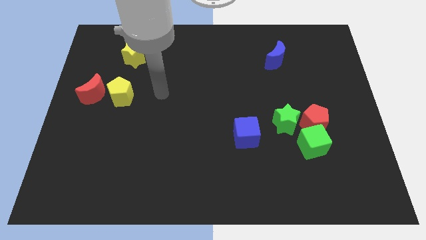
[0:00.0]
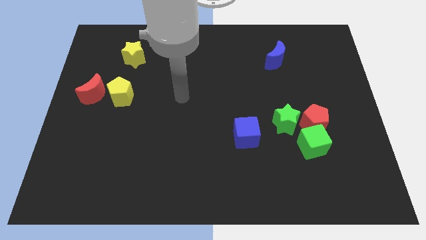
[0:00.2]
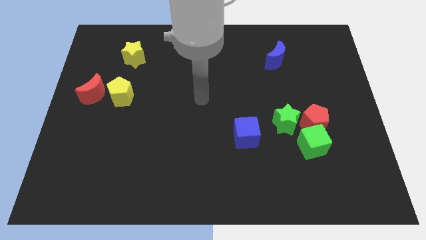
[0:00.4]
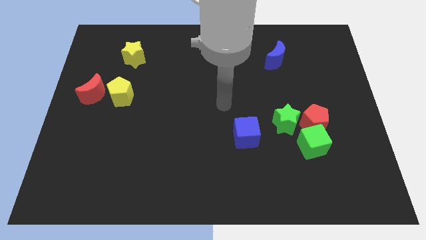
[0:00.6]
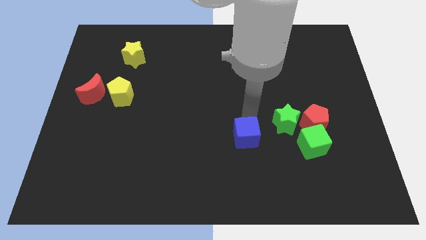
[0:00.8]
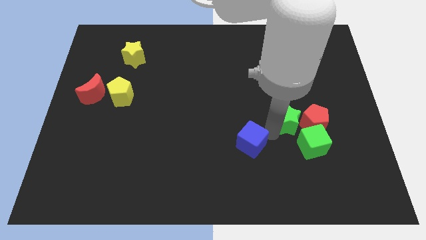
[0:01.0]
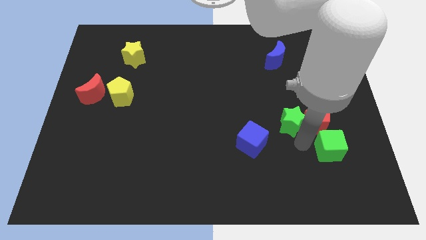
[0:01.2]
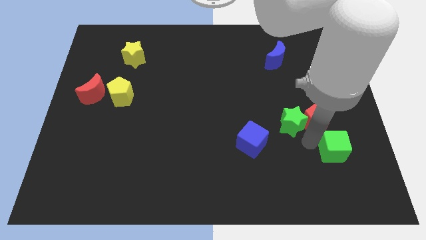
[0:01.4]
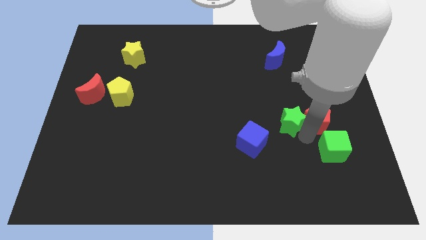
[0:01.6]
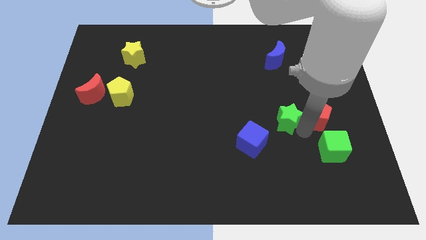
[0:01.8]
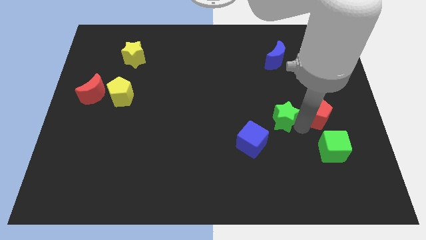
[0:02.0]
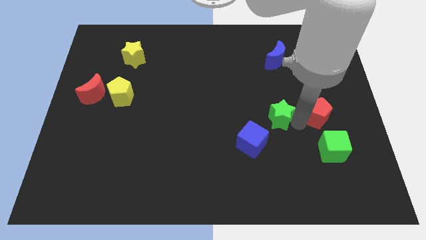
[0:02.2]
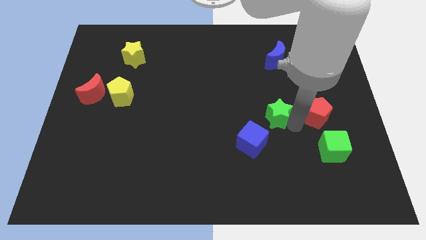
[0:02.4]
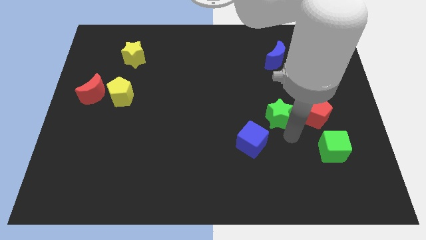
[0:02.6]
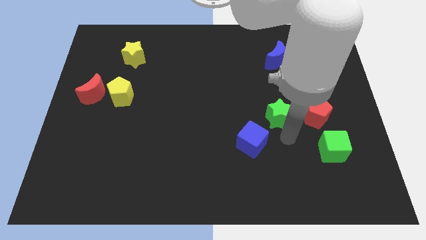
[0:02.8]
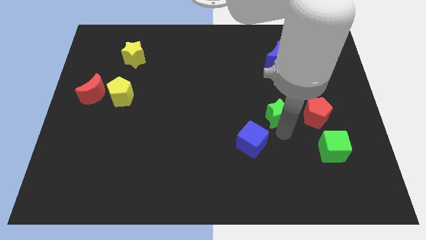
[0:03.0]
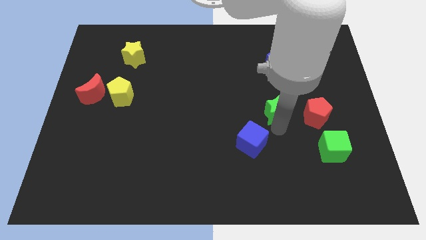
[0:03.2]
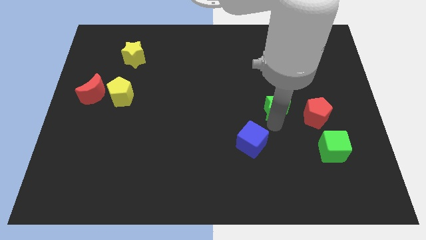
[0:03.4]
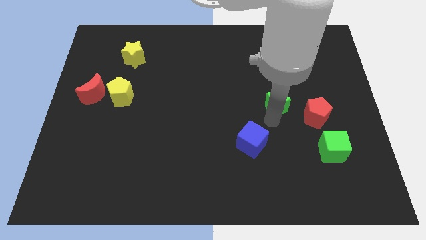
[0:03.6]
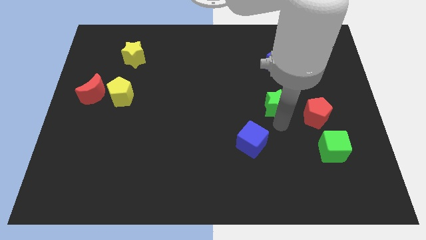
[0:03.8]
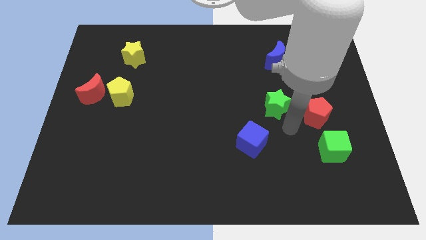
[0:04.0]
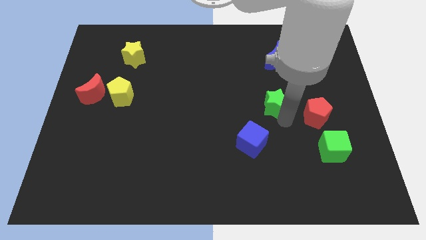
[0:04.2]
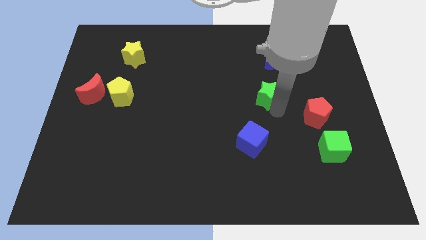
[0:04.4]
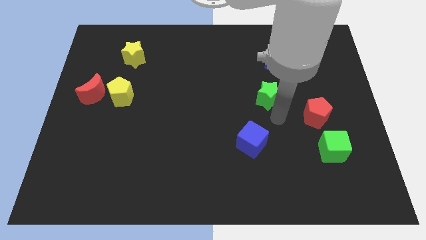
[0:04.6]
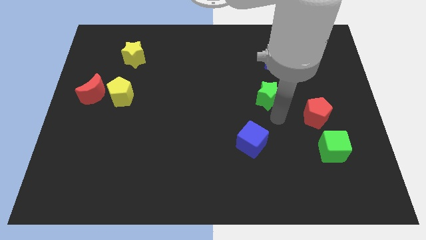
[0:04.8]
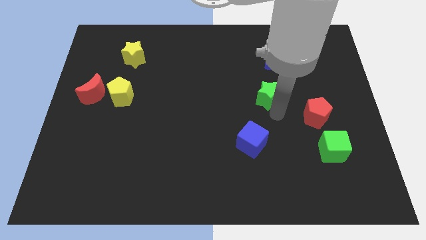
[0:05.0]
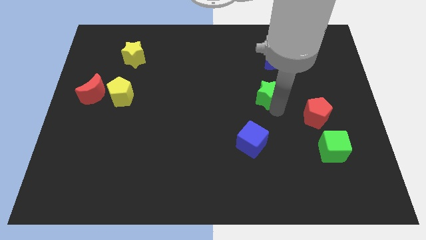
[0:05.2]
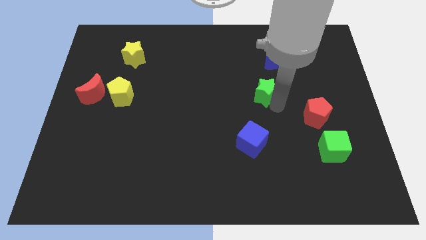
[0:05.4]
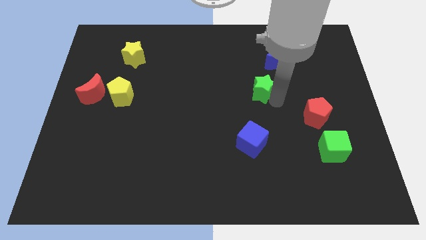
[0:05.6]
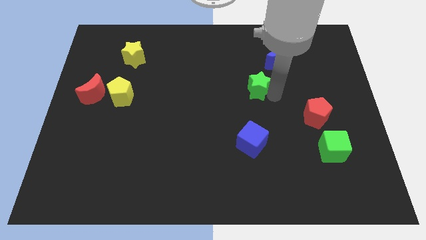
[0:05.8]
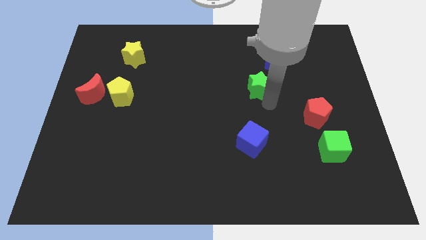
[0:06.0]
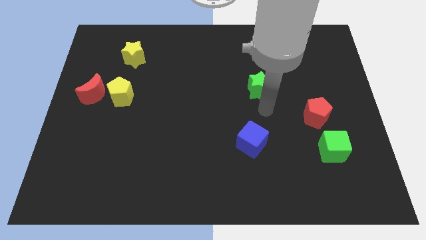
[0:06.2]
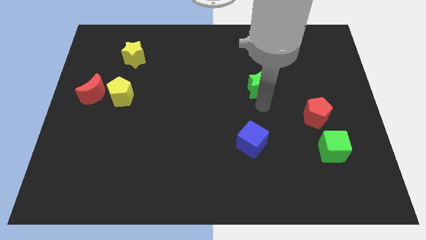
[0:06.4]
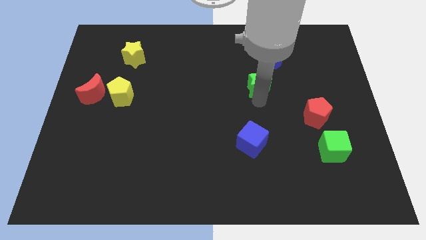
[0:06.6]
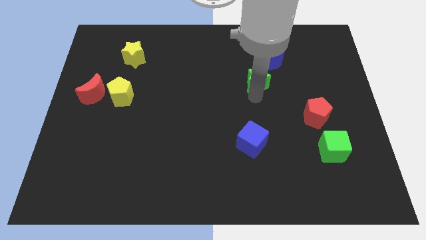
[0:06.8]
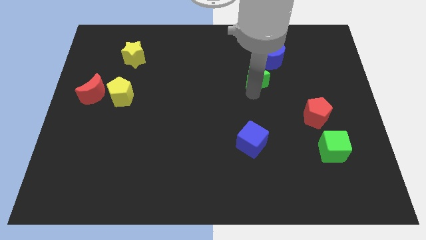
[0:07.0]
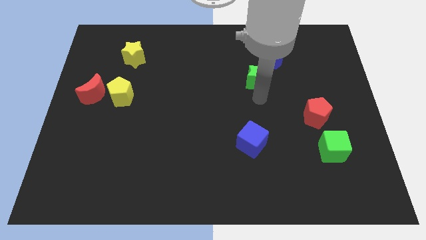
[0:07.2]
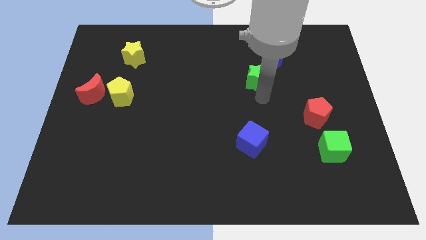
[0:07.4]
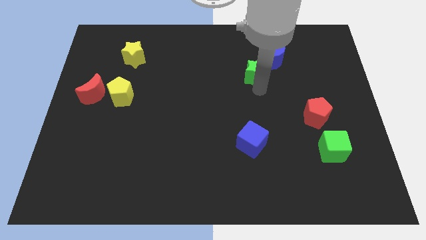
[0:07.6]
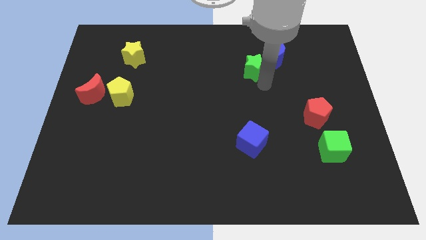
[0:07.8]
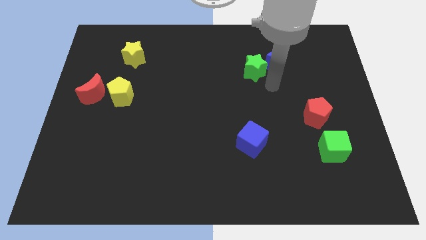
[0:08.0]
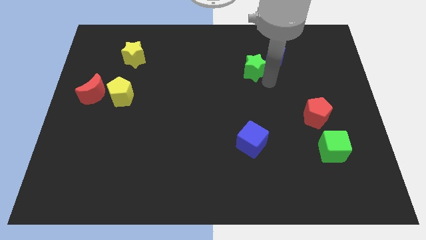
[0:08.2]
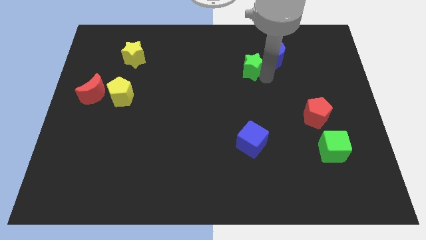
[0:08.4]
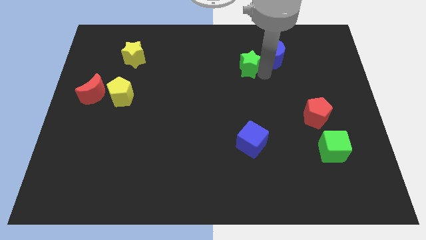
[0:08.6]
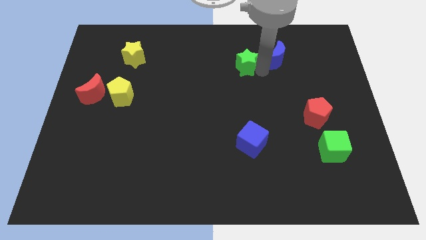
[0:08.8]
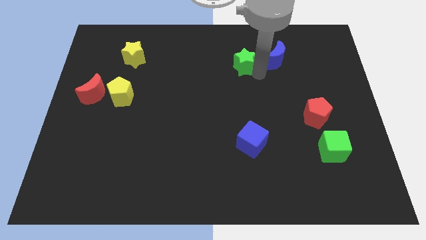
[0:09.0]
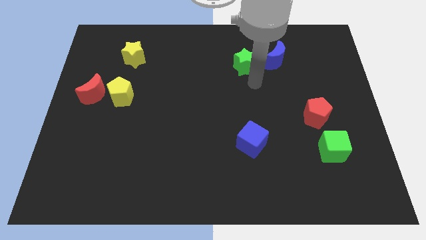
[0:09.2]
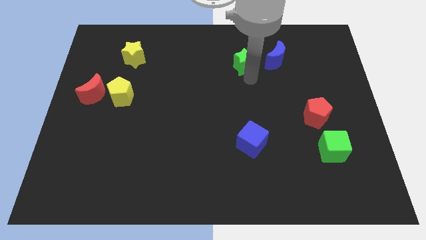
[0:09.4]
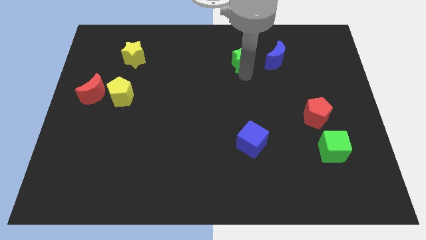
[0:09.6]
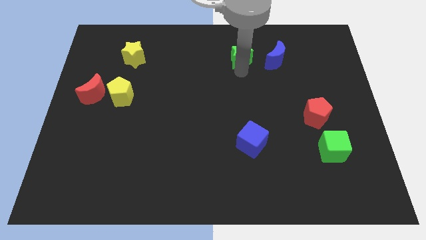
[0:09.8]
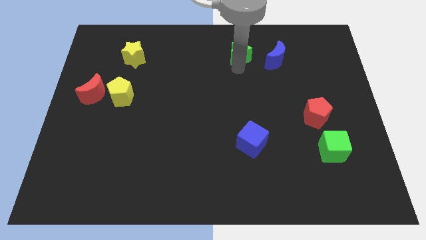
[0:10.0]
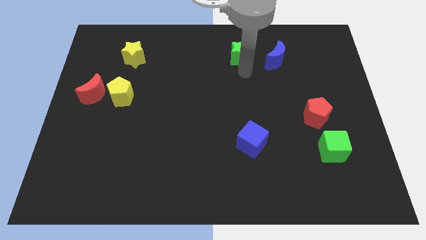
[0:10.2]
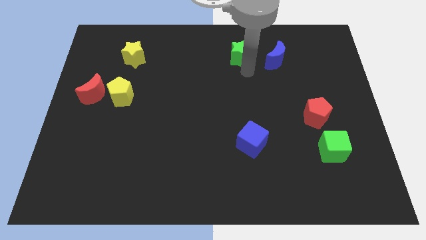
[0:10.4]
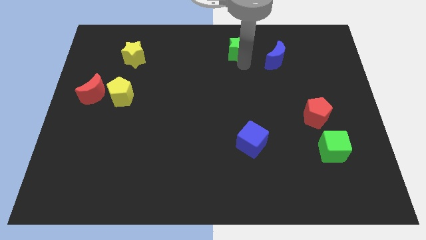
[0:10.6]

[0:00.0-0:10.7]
put the green star to the top side
